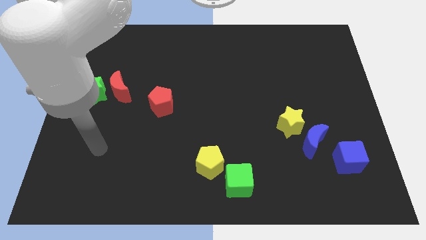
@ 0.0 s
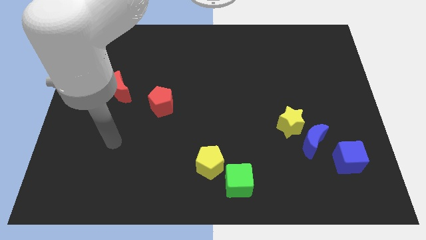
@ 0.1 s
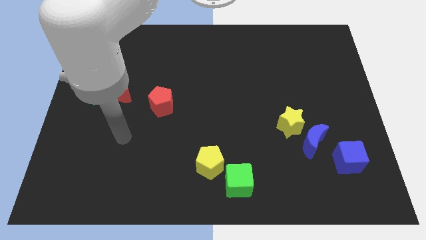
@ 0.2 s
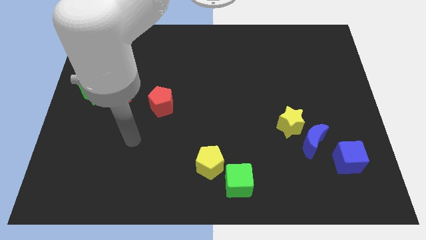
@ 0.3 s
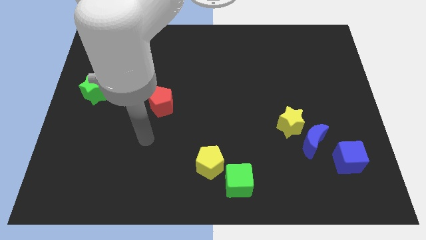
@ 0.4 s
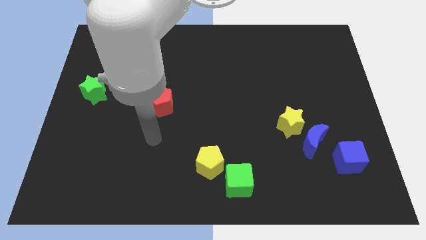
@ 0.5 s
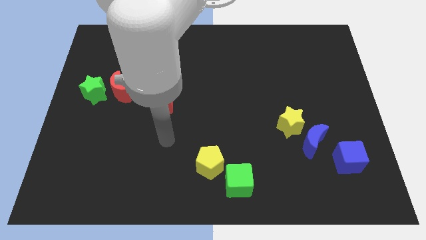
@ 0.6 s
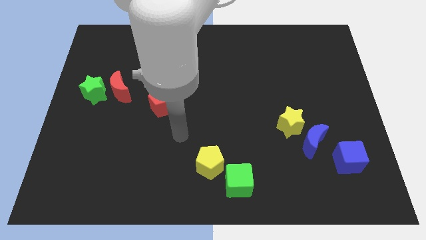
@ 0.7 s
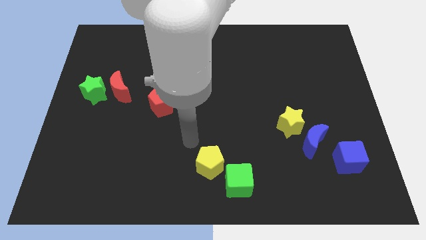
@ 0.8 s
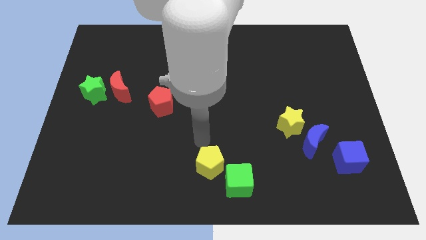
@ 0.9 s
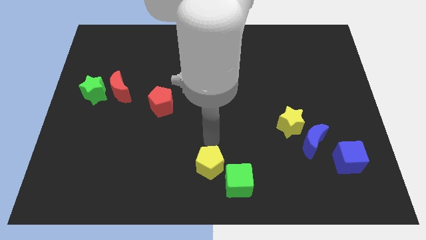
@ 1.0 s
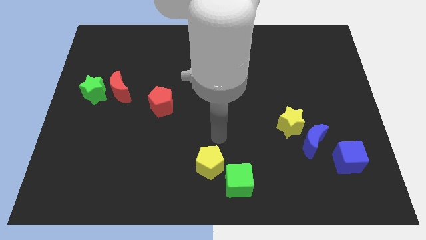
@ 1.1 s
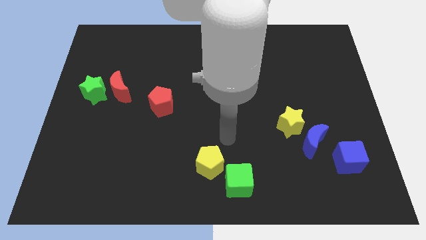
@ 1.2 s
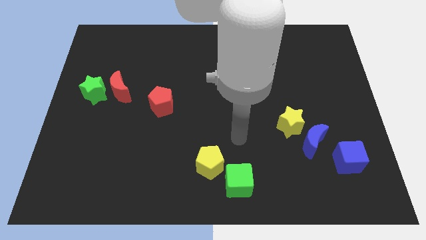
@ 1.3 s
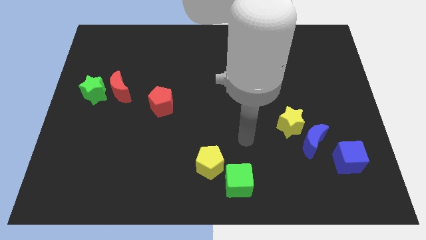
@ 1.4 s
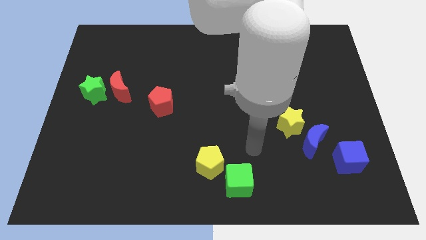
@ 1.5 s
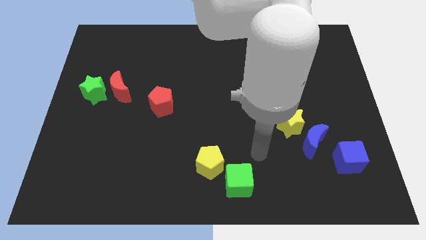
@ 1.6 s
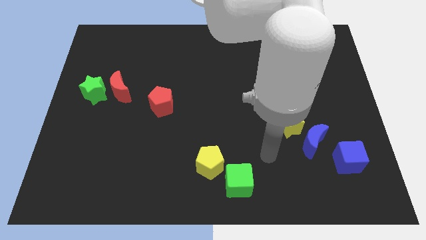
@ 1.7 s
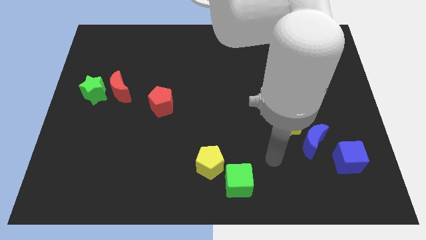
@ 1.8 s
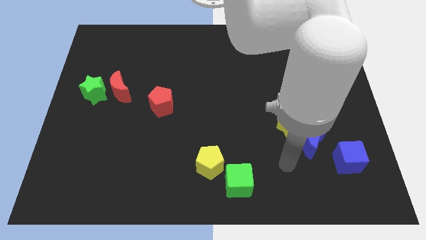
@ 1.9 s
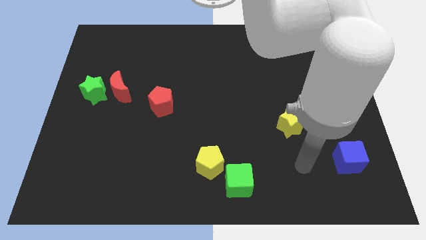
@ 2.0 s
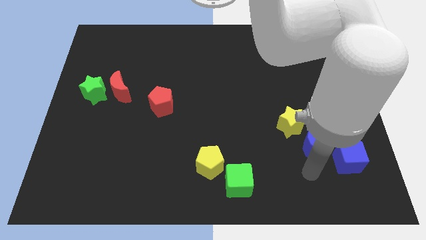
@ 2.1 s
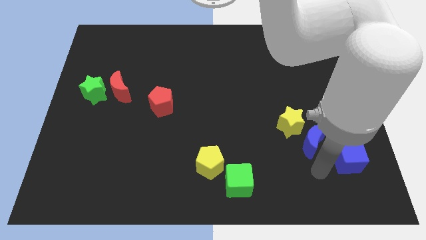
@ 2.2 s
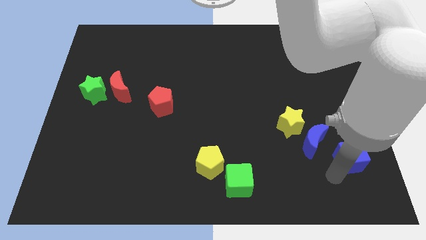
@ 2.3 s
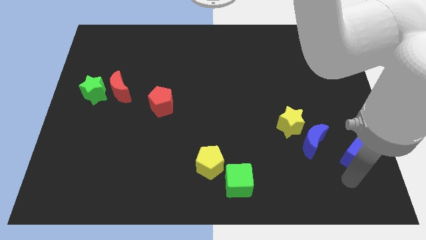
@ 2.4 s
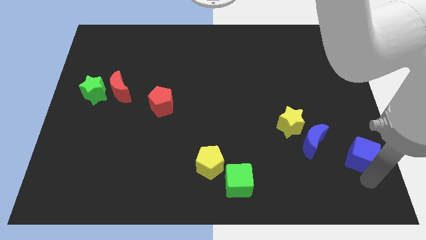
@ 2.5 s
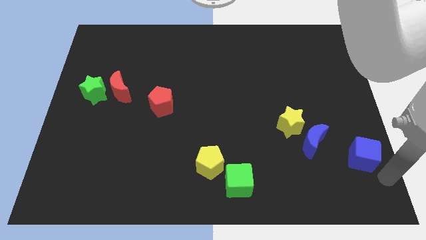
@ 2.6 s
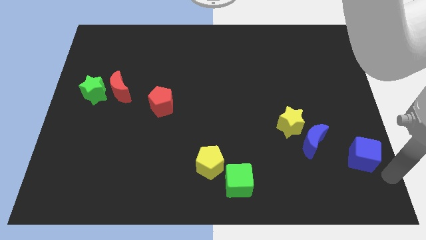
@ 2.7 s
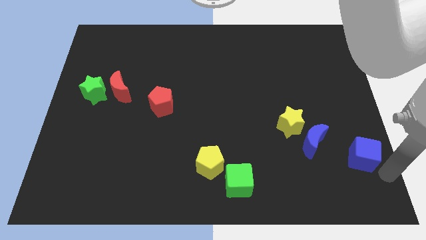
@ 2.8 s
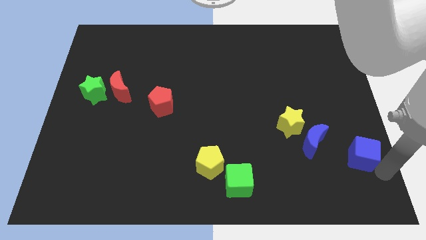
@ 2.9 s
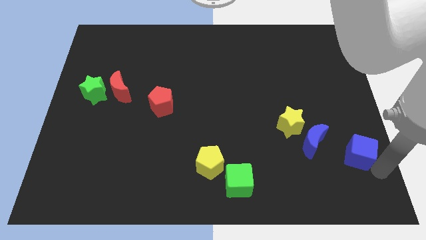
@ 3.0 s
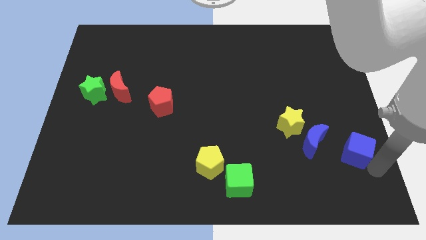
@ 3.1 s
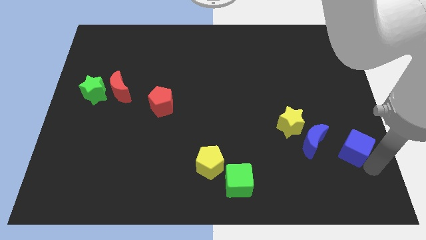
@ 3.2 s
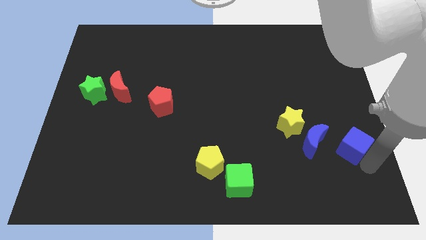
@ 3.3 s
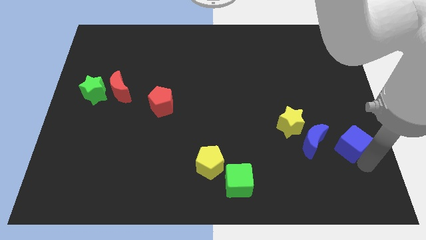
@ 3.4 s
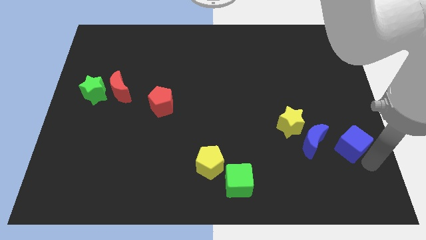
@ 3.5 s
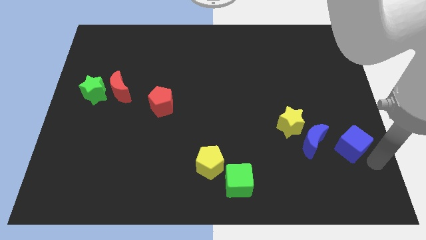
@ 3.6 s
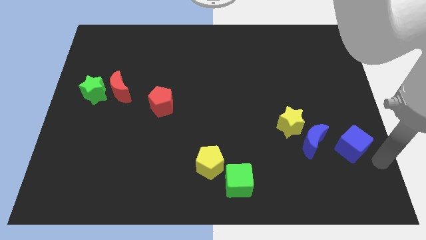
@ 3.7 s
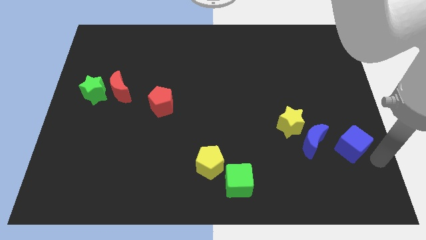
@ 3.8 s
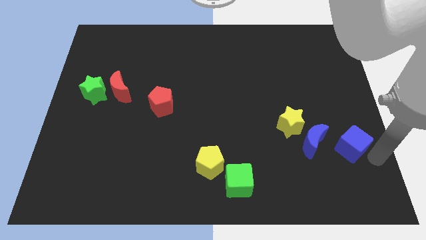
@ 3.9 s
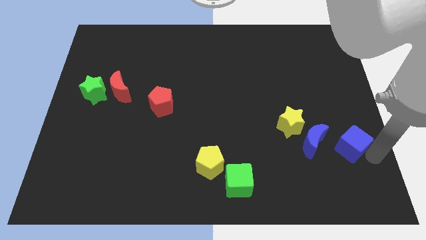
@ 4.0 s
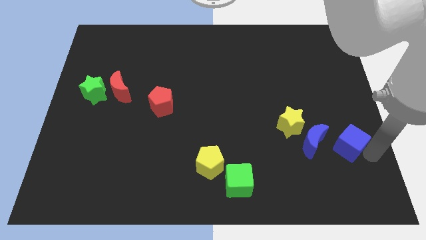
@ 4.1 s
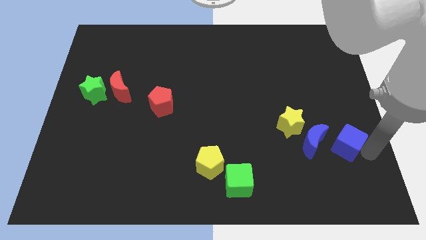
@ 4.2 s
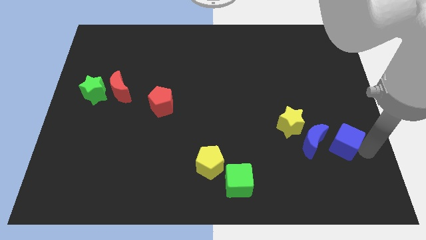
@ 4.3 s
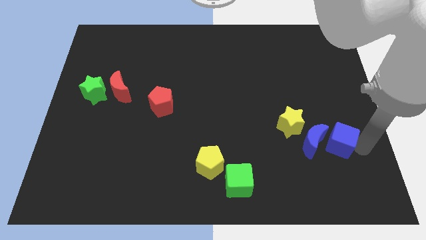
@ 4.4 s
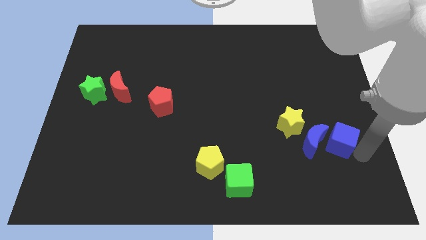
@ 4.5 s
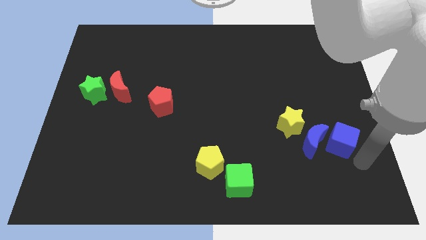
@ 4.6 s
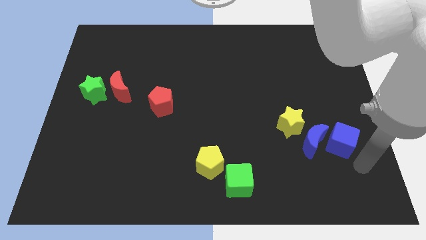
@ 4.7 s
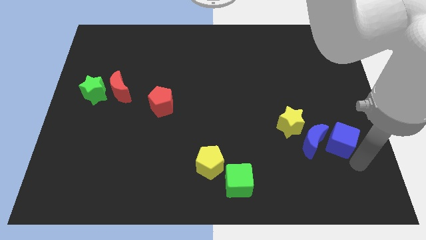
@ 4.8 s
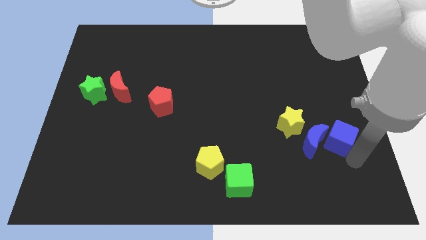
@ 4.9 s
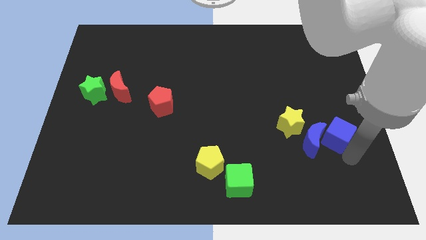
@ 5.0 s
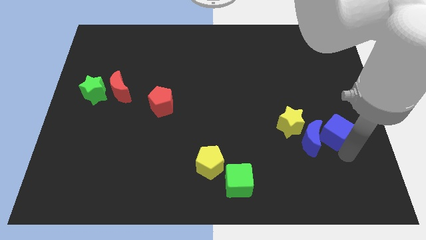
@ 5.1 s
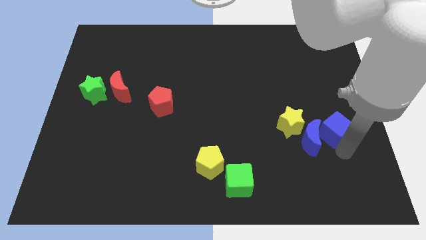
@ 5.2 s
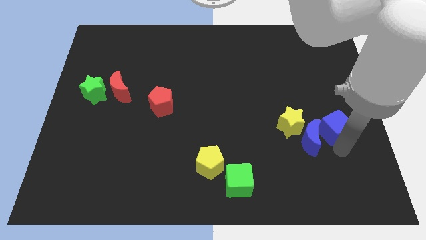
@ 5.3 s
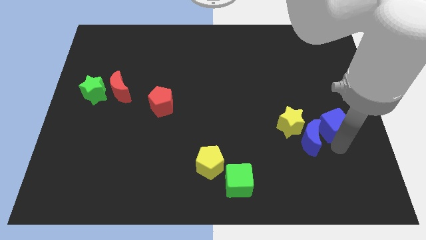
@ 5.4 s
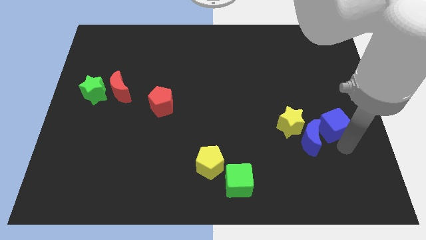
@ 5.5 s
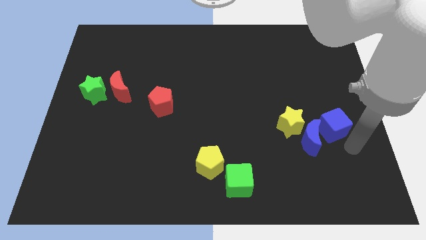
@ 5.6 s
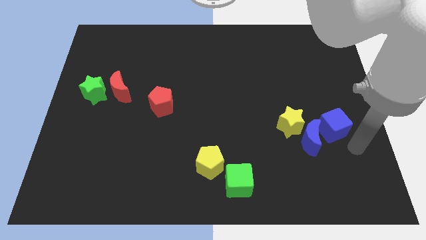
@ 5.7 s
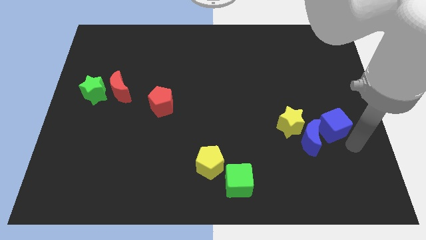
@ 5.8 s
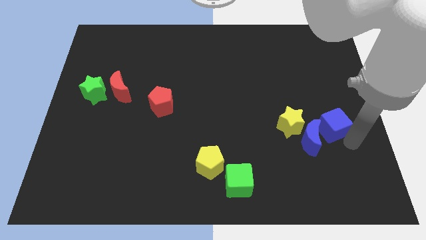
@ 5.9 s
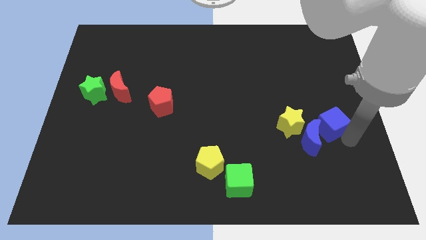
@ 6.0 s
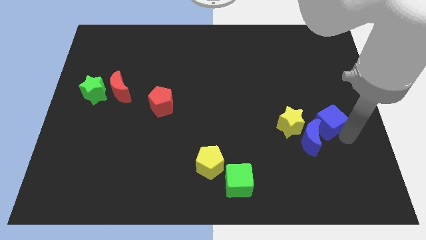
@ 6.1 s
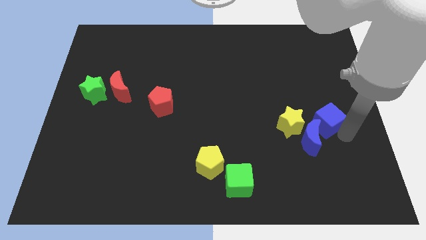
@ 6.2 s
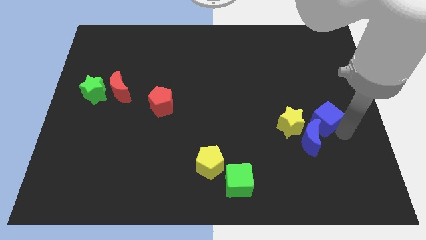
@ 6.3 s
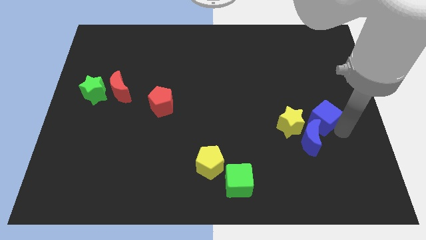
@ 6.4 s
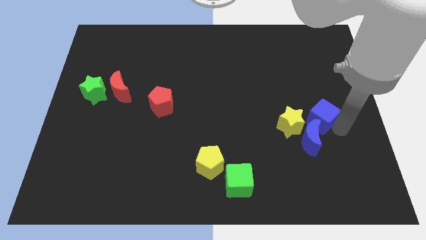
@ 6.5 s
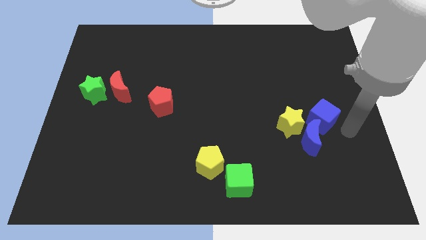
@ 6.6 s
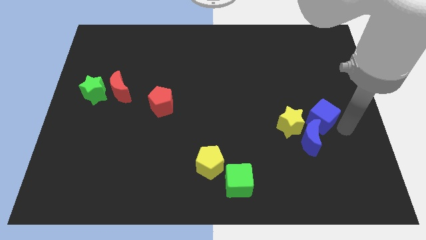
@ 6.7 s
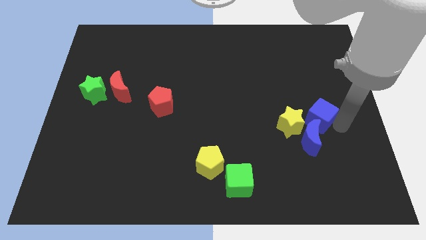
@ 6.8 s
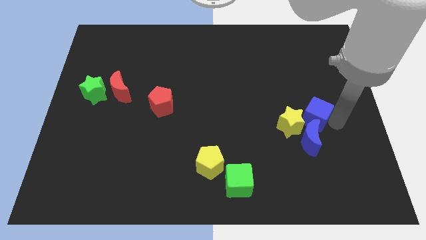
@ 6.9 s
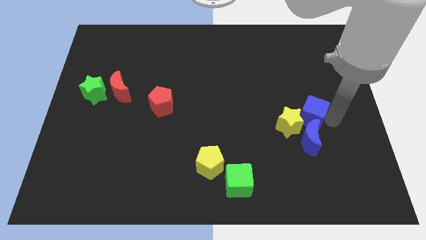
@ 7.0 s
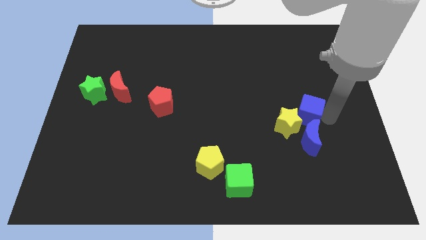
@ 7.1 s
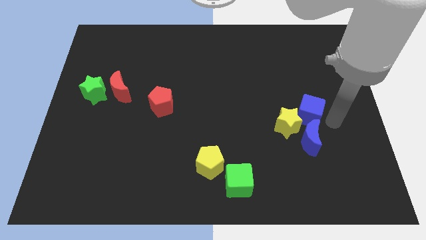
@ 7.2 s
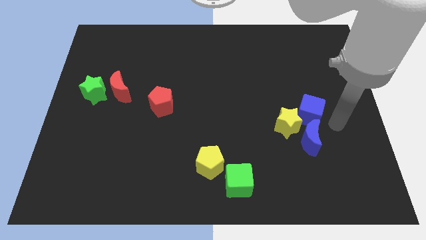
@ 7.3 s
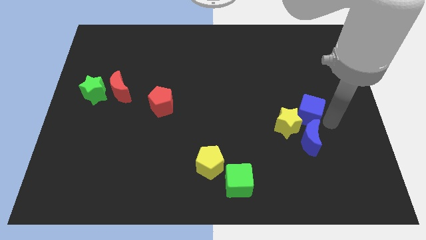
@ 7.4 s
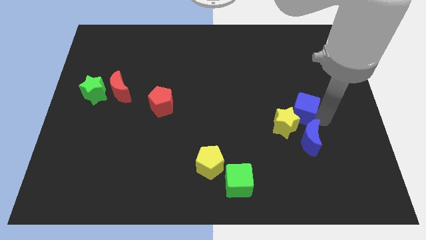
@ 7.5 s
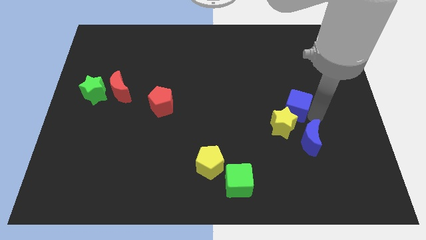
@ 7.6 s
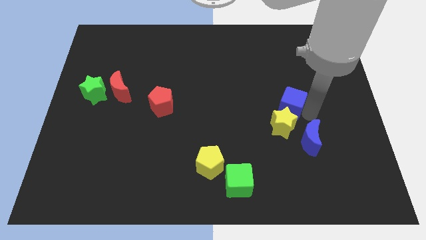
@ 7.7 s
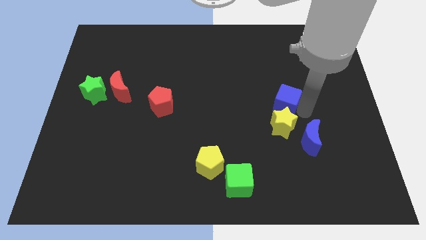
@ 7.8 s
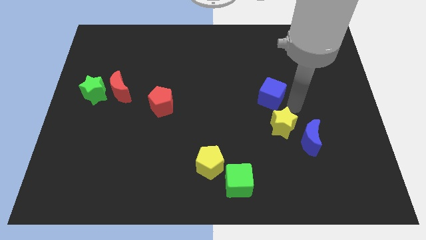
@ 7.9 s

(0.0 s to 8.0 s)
push the blue cube up and left

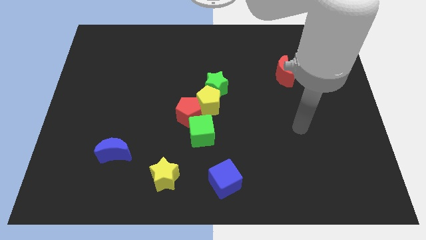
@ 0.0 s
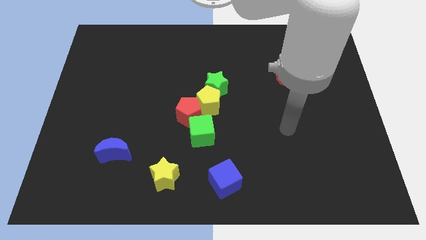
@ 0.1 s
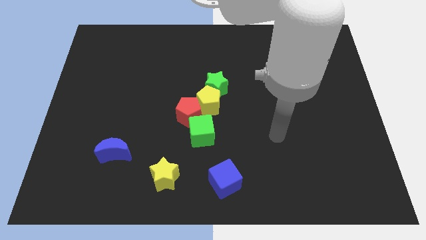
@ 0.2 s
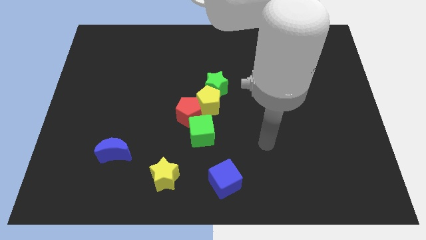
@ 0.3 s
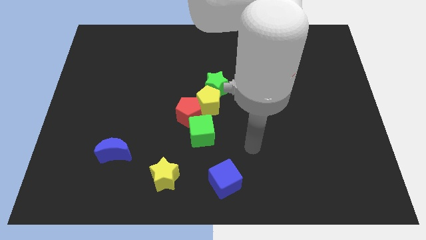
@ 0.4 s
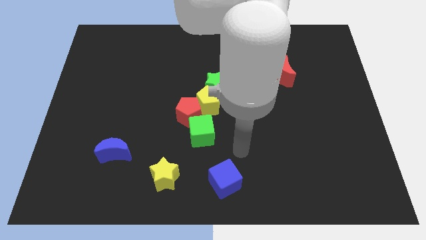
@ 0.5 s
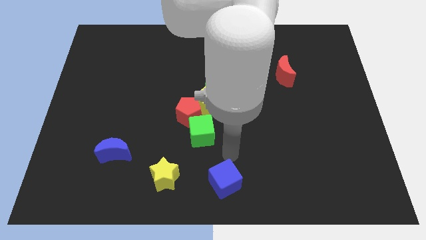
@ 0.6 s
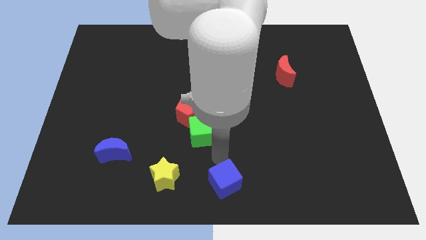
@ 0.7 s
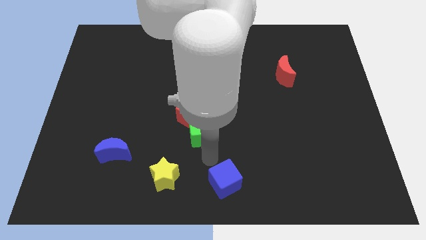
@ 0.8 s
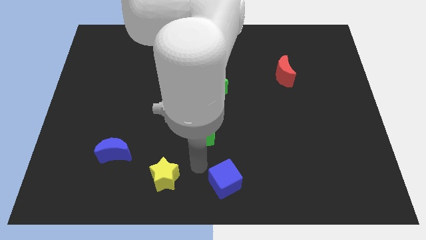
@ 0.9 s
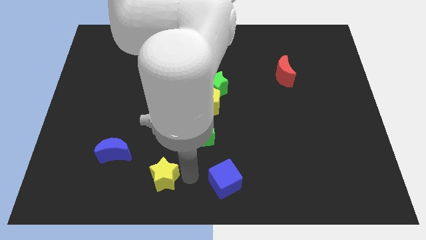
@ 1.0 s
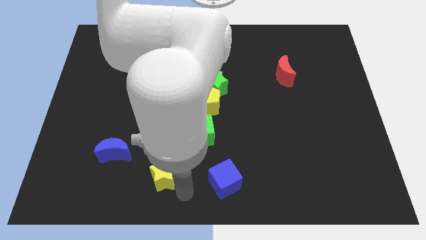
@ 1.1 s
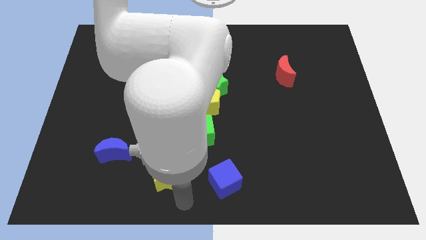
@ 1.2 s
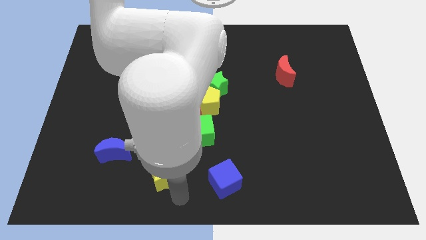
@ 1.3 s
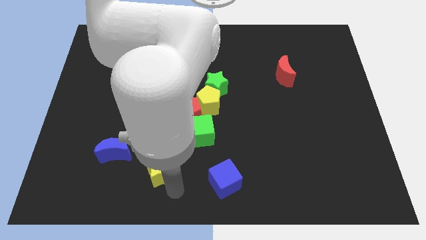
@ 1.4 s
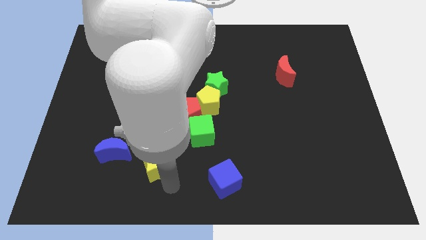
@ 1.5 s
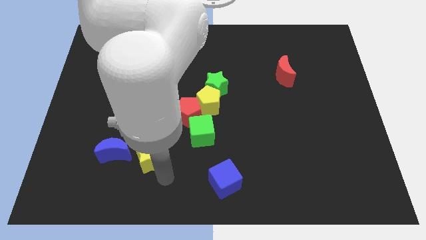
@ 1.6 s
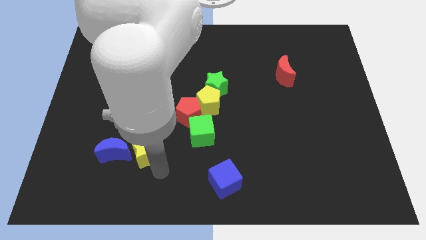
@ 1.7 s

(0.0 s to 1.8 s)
push the yellow star upwards and left diagonally a little
